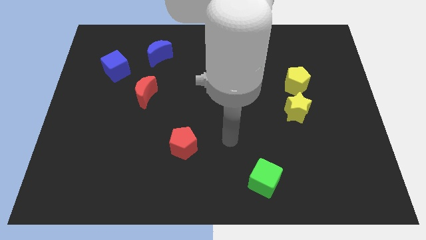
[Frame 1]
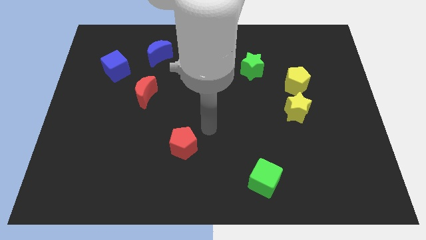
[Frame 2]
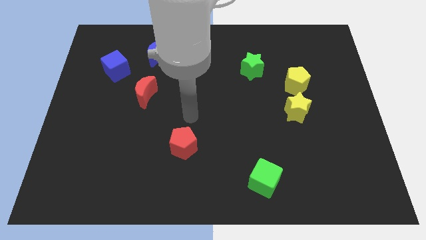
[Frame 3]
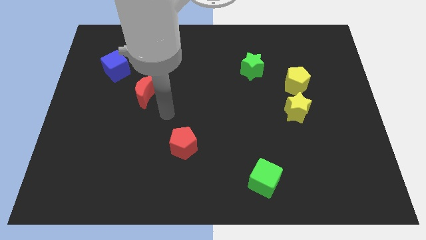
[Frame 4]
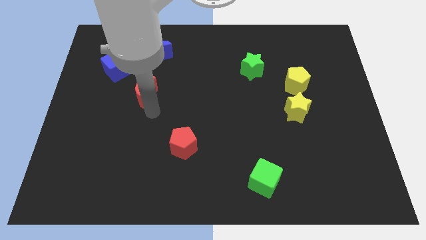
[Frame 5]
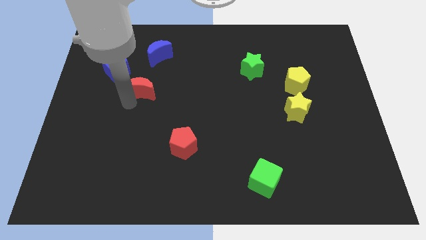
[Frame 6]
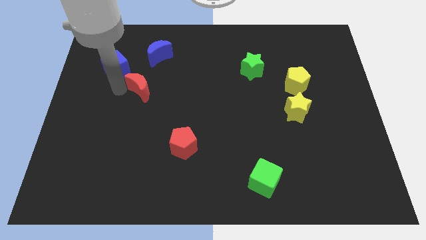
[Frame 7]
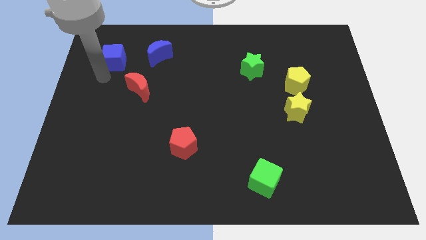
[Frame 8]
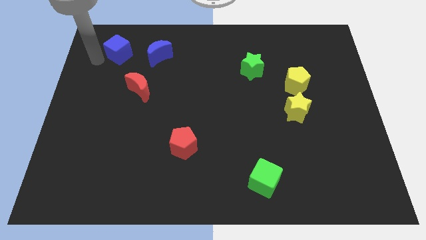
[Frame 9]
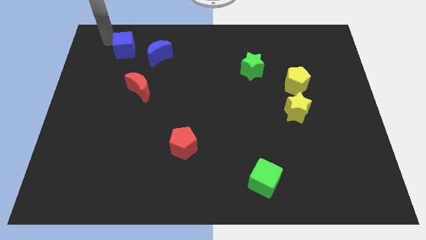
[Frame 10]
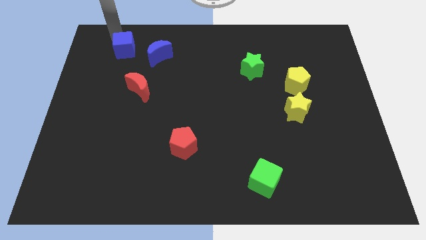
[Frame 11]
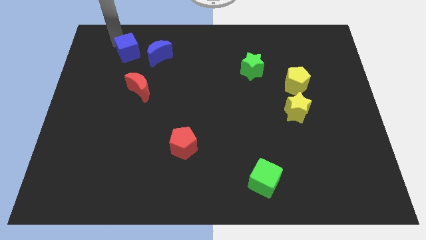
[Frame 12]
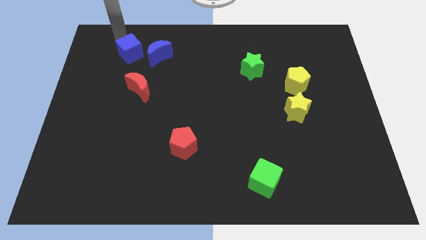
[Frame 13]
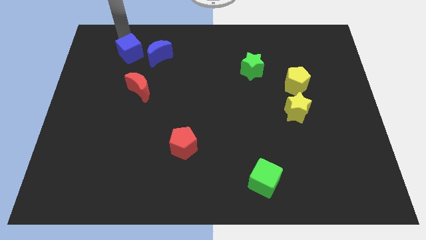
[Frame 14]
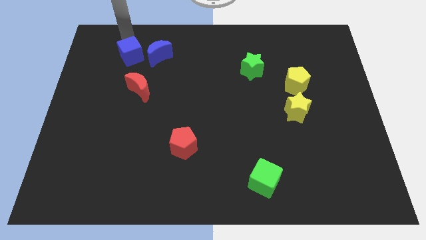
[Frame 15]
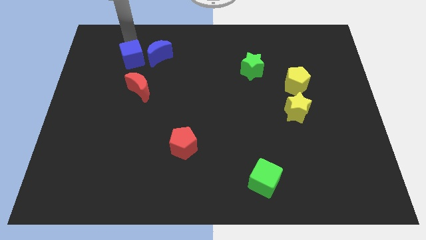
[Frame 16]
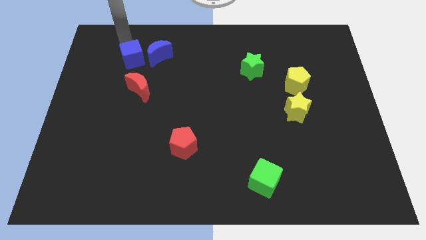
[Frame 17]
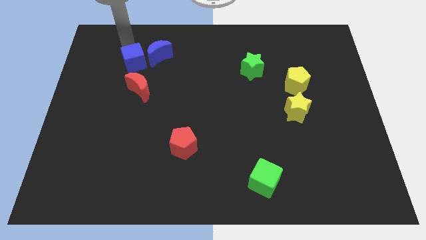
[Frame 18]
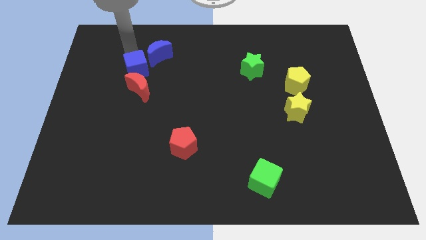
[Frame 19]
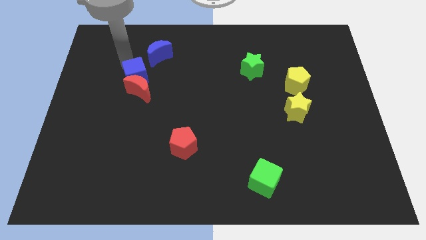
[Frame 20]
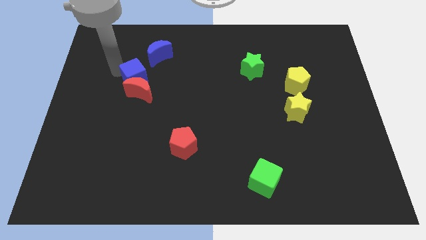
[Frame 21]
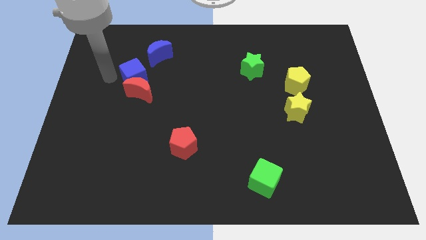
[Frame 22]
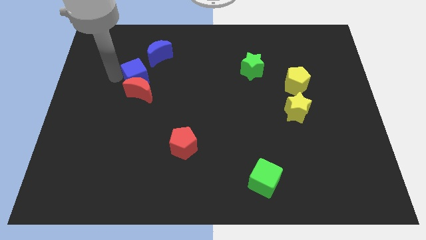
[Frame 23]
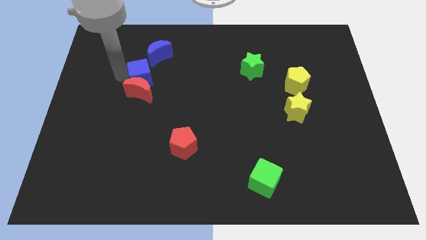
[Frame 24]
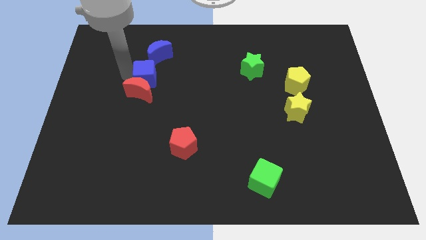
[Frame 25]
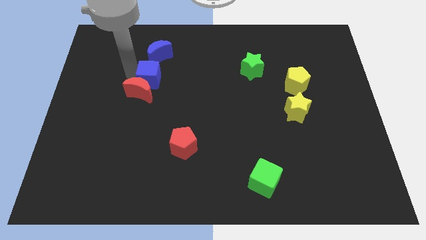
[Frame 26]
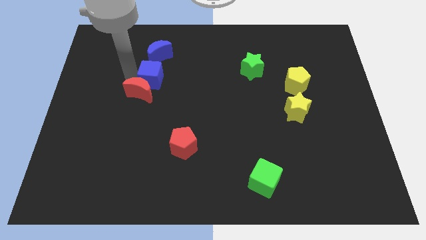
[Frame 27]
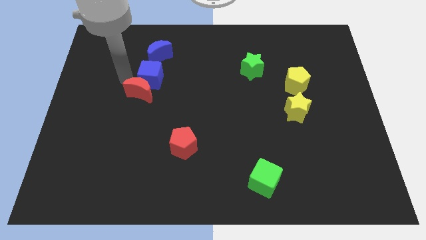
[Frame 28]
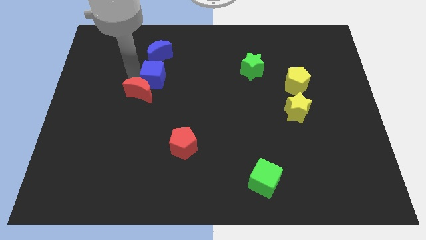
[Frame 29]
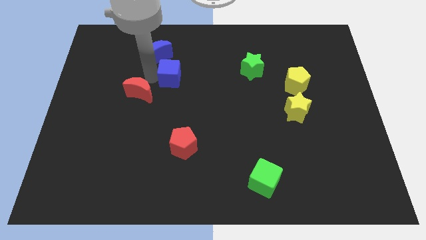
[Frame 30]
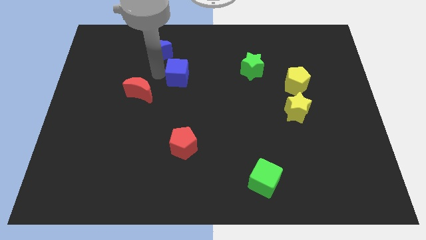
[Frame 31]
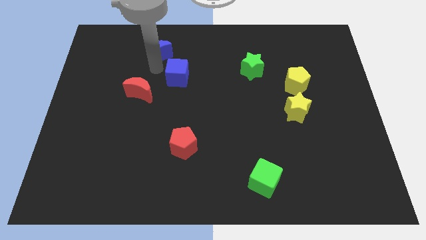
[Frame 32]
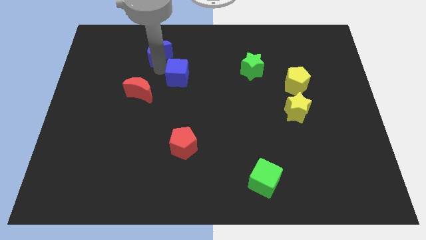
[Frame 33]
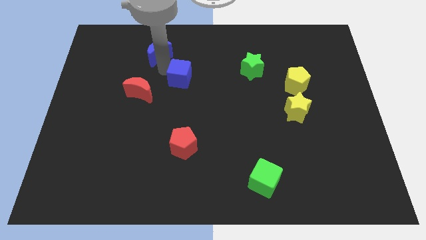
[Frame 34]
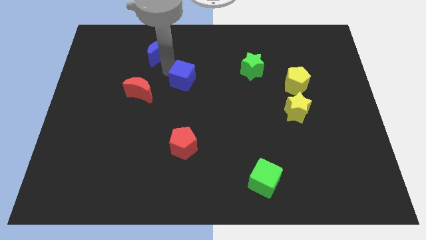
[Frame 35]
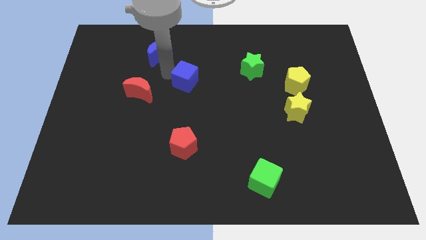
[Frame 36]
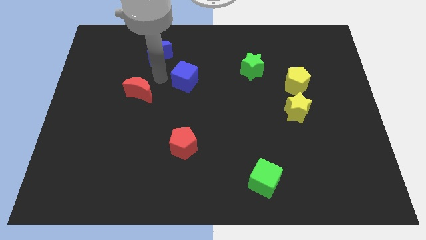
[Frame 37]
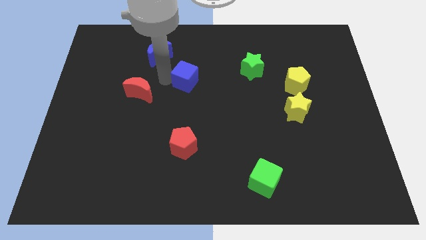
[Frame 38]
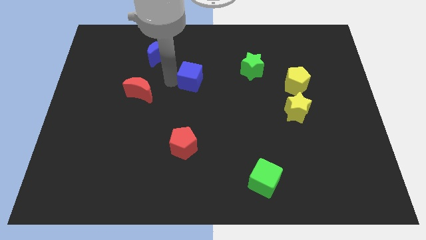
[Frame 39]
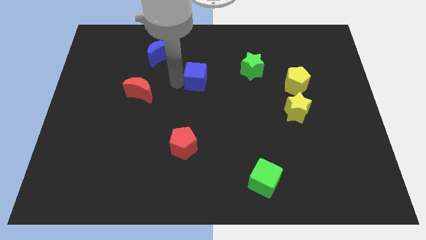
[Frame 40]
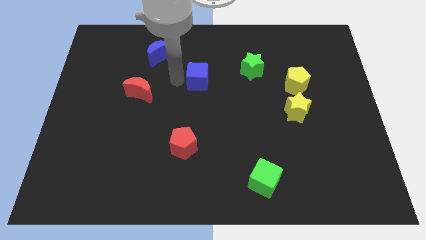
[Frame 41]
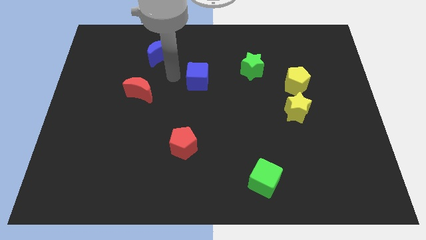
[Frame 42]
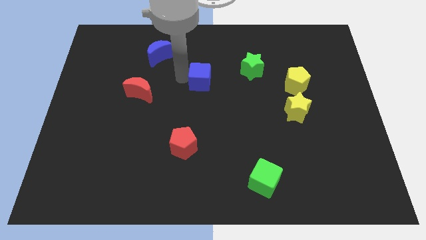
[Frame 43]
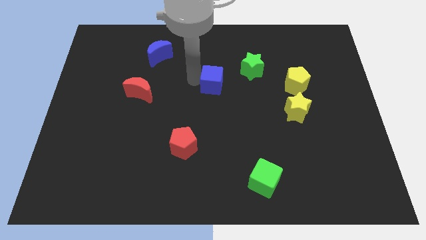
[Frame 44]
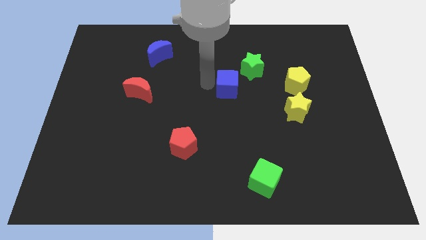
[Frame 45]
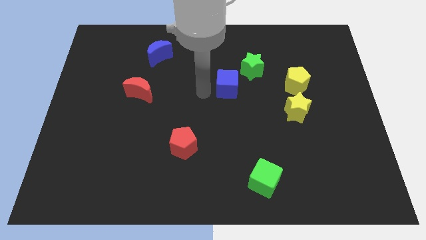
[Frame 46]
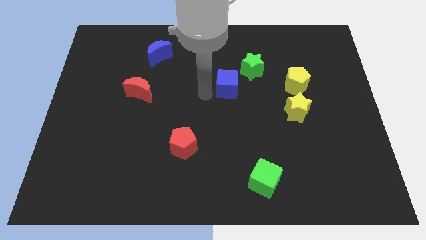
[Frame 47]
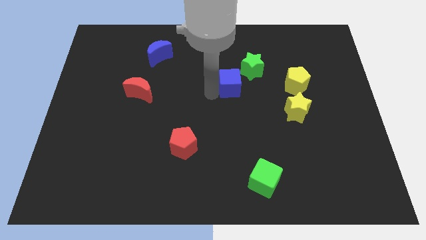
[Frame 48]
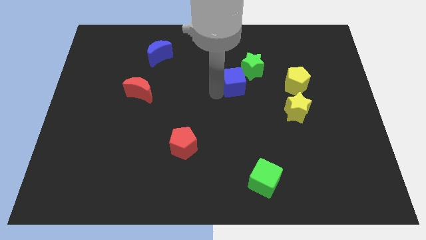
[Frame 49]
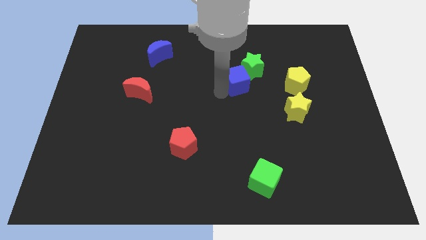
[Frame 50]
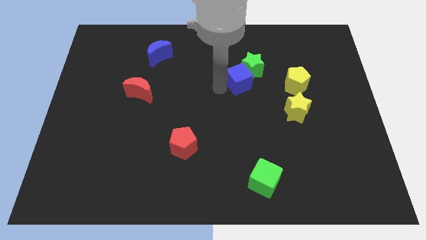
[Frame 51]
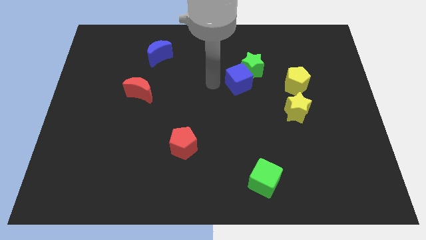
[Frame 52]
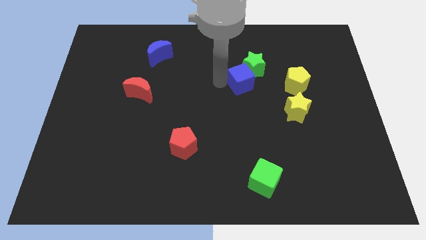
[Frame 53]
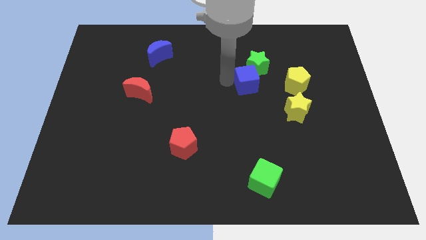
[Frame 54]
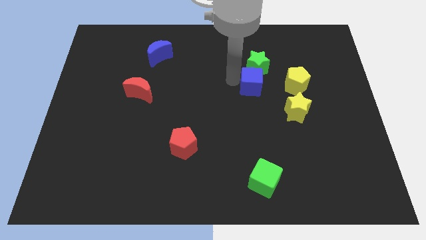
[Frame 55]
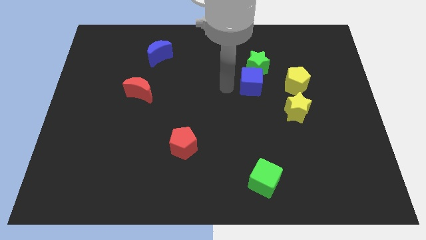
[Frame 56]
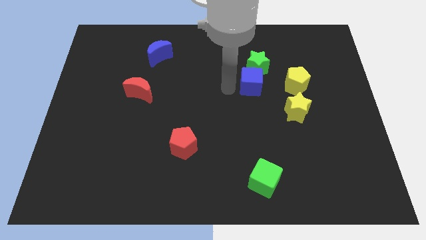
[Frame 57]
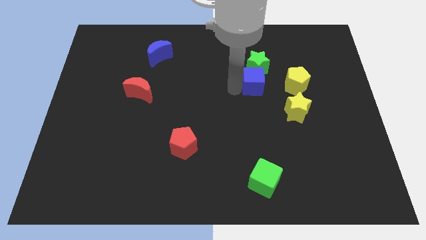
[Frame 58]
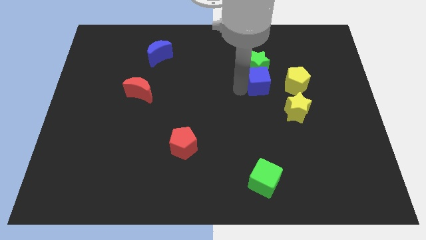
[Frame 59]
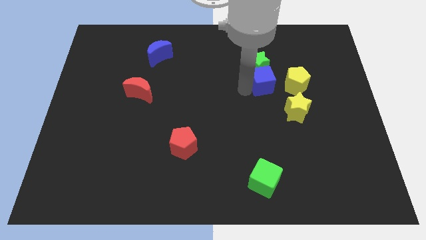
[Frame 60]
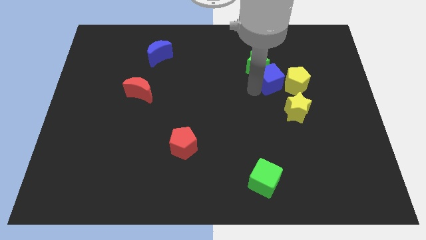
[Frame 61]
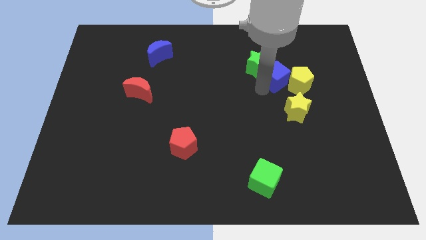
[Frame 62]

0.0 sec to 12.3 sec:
move the blue cube to the right side of the green star
